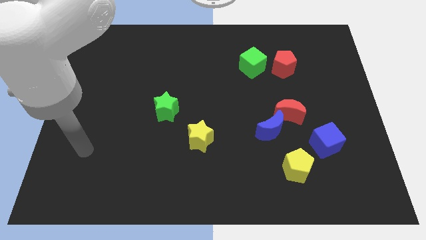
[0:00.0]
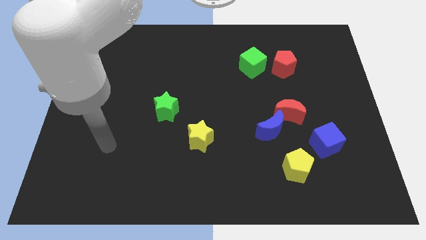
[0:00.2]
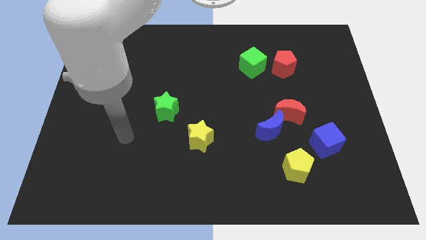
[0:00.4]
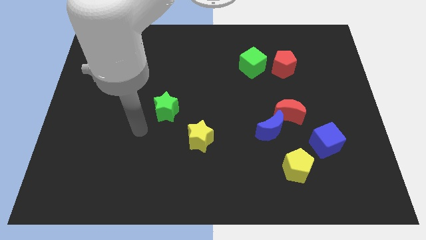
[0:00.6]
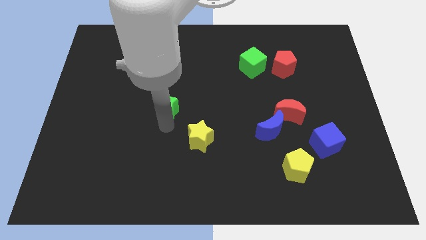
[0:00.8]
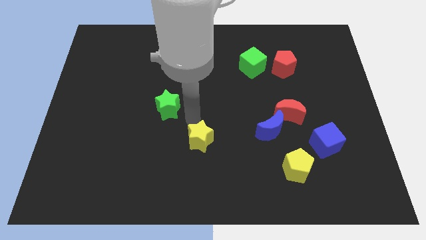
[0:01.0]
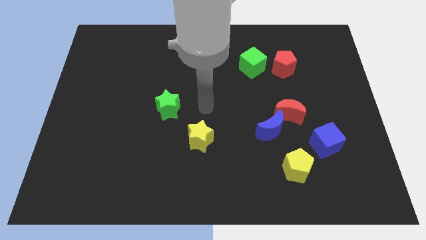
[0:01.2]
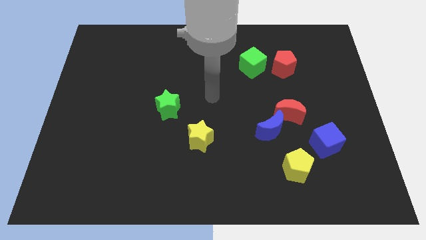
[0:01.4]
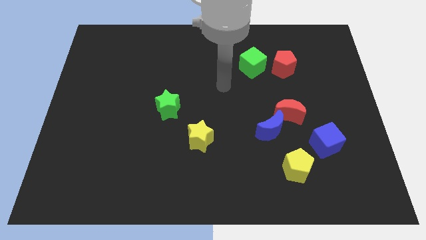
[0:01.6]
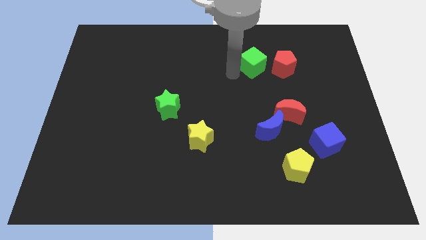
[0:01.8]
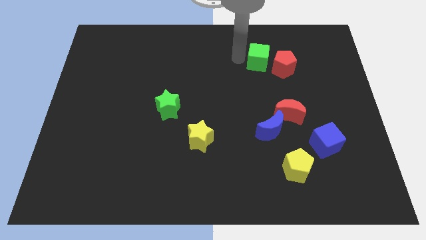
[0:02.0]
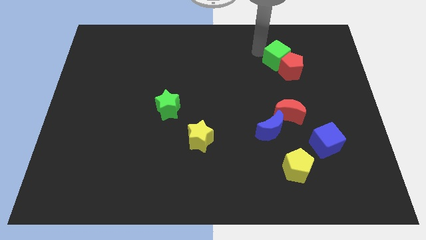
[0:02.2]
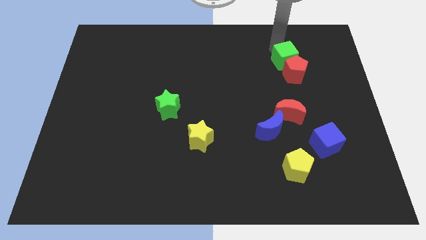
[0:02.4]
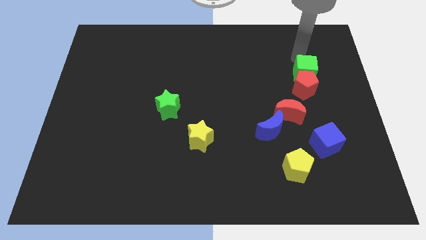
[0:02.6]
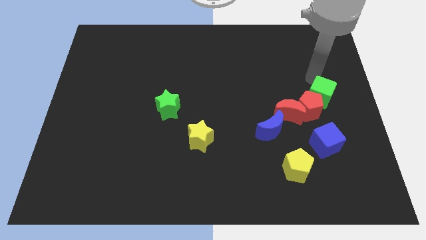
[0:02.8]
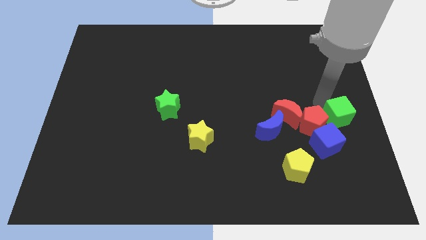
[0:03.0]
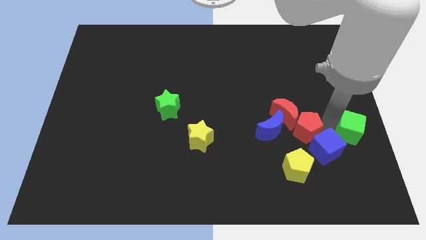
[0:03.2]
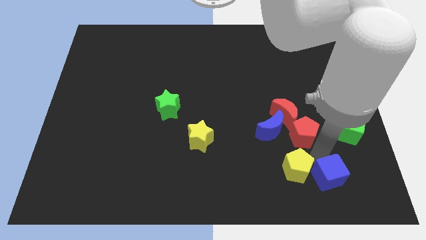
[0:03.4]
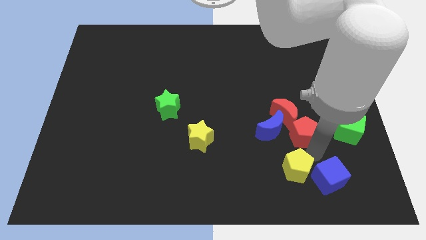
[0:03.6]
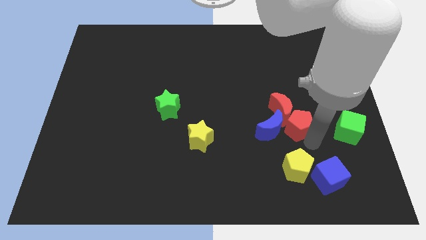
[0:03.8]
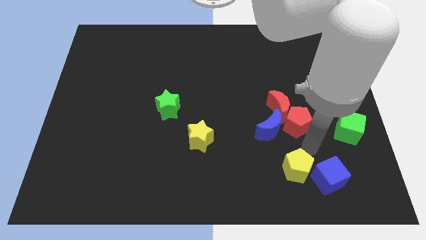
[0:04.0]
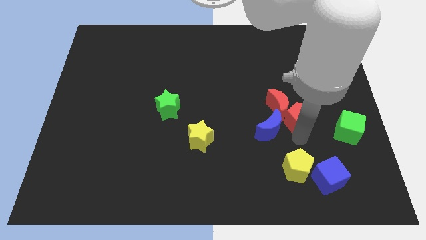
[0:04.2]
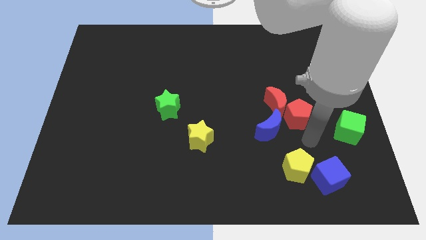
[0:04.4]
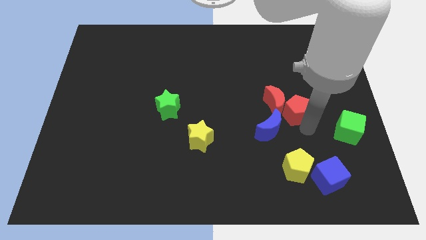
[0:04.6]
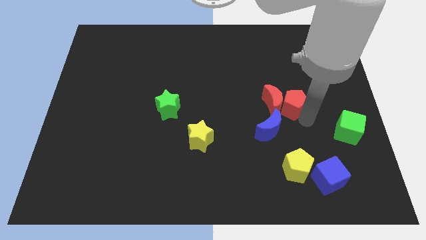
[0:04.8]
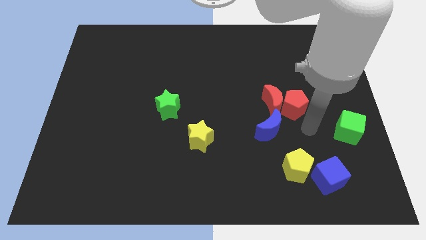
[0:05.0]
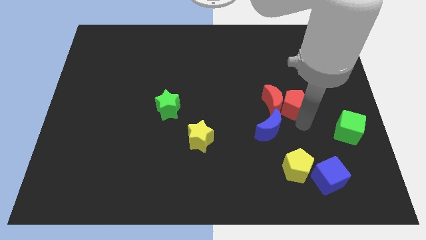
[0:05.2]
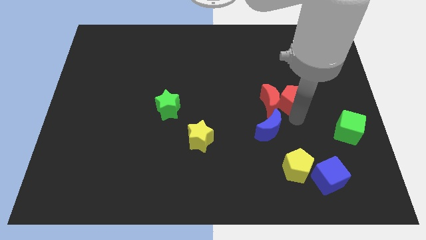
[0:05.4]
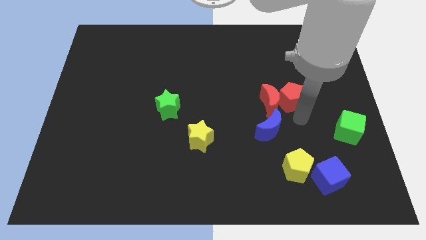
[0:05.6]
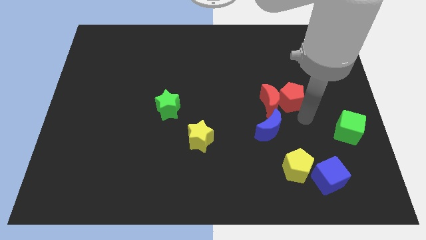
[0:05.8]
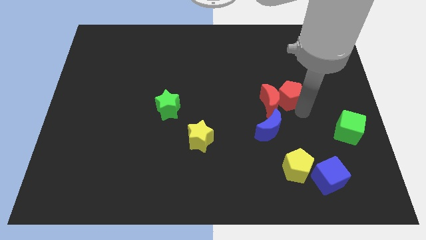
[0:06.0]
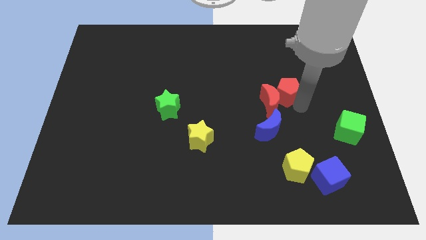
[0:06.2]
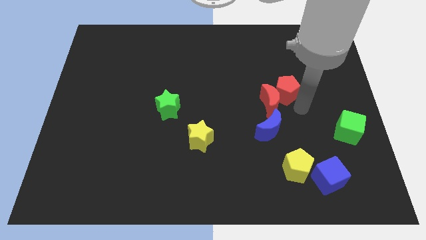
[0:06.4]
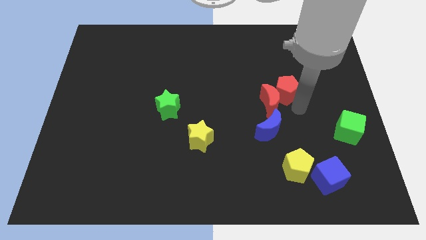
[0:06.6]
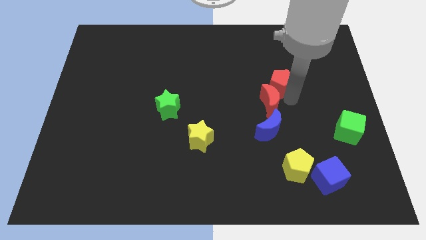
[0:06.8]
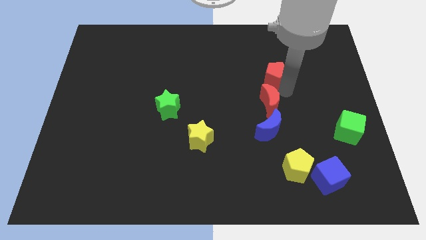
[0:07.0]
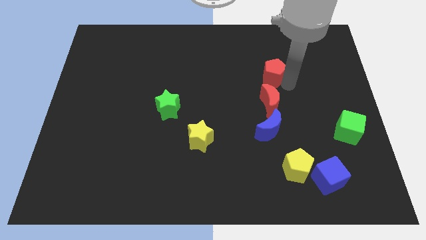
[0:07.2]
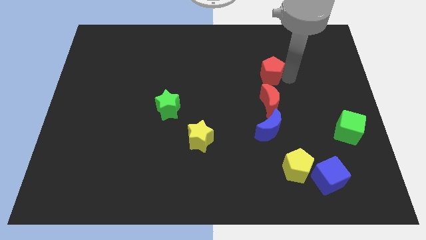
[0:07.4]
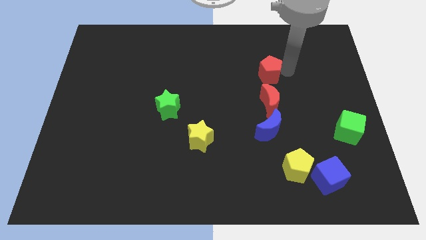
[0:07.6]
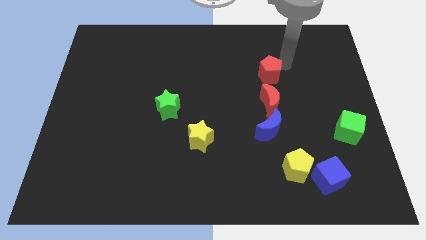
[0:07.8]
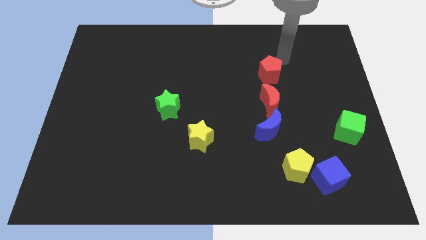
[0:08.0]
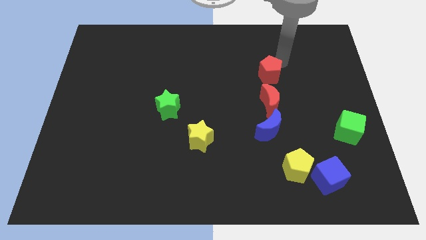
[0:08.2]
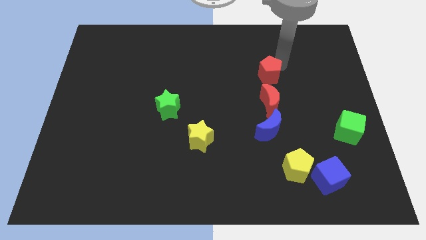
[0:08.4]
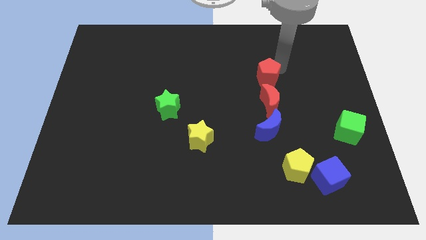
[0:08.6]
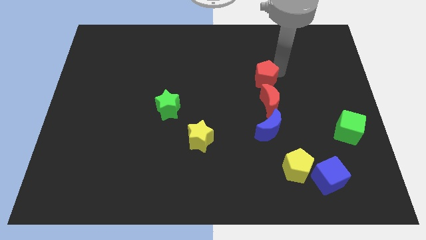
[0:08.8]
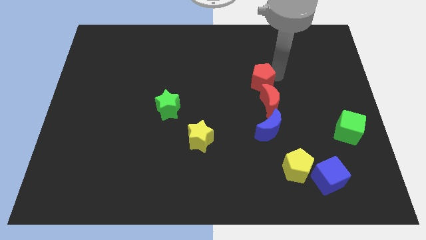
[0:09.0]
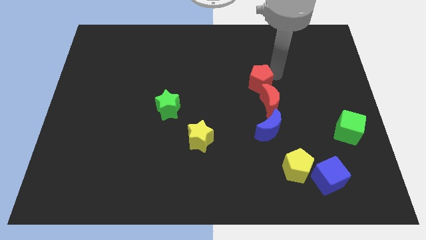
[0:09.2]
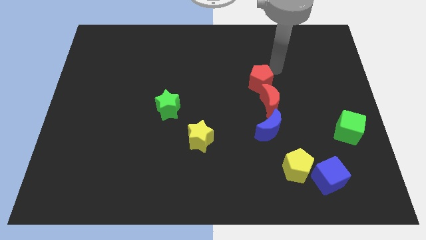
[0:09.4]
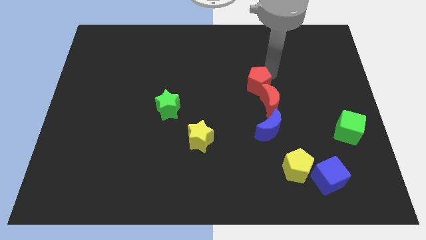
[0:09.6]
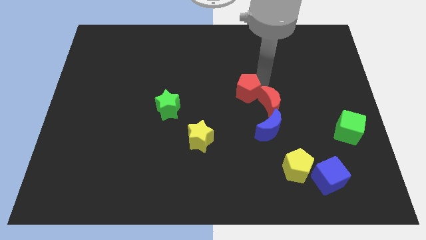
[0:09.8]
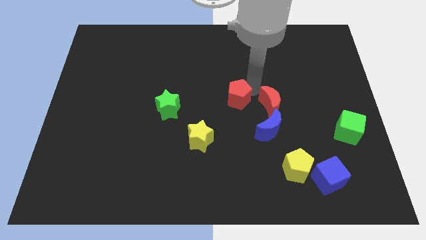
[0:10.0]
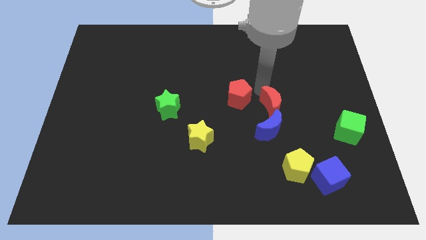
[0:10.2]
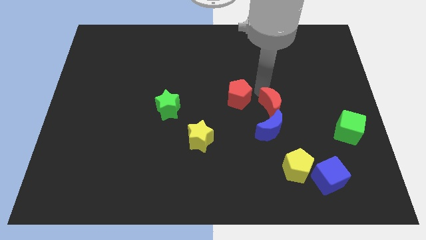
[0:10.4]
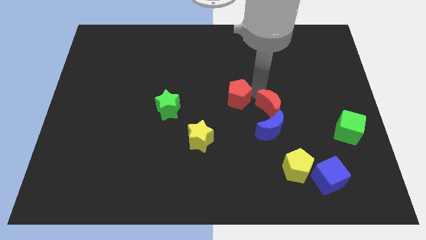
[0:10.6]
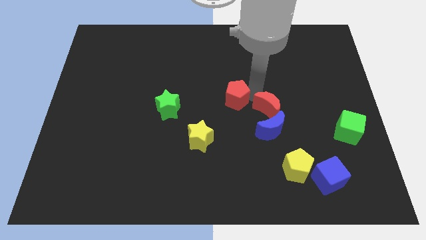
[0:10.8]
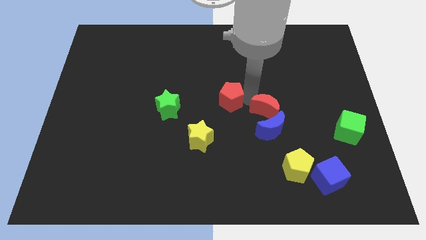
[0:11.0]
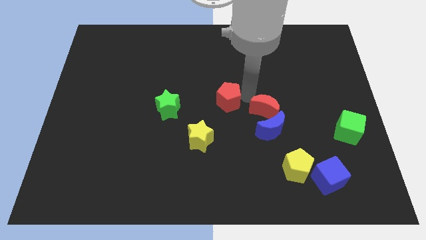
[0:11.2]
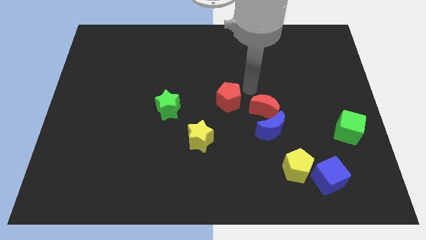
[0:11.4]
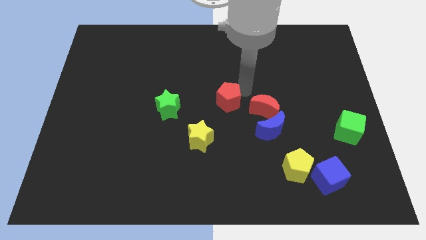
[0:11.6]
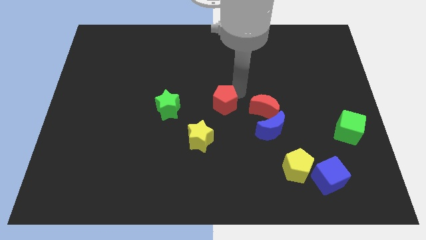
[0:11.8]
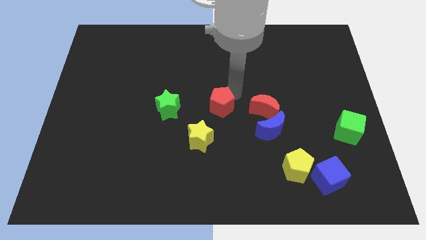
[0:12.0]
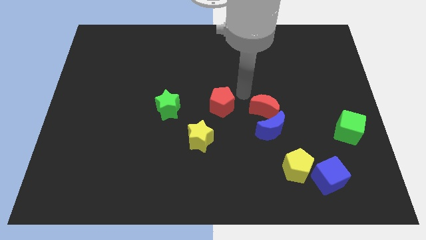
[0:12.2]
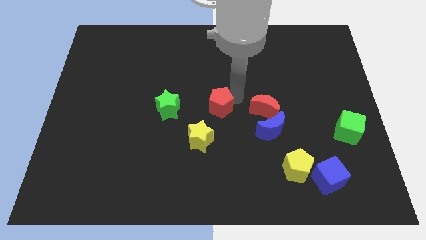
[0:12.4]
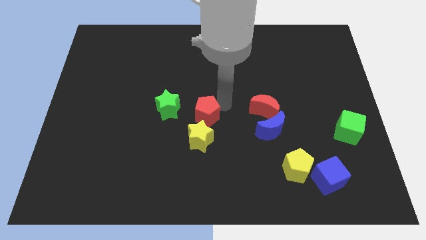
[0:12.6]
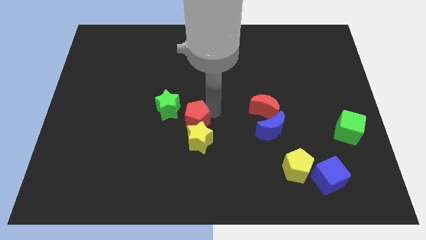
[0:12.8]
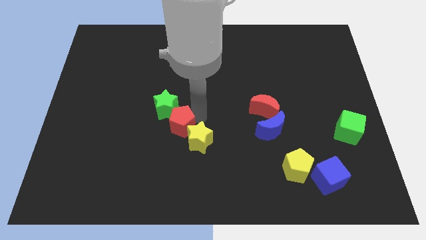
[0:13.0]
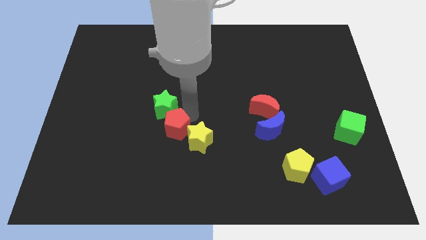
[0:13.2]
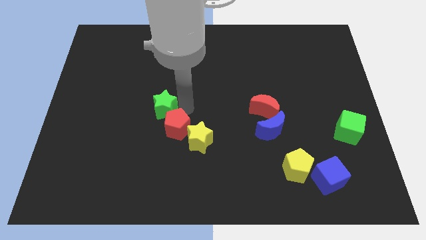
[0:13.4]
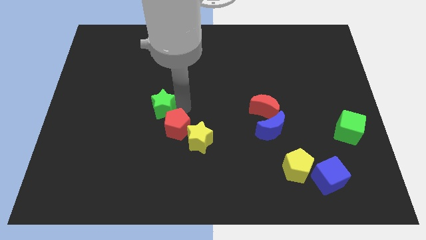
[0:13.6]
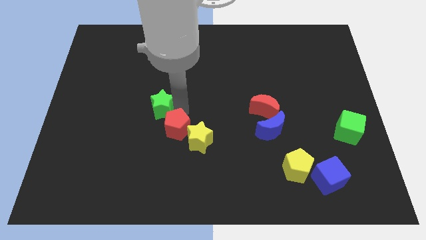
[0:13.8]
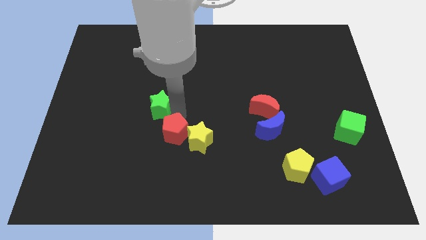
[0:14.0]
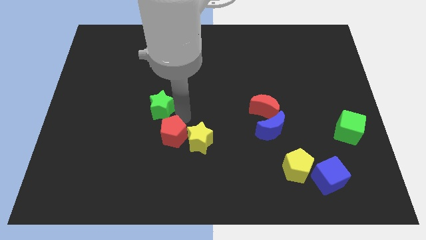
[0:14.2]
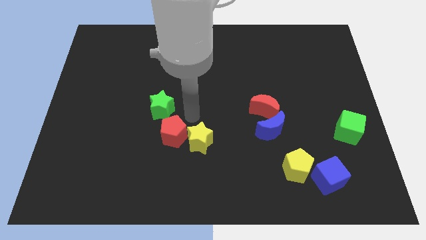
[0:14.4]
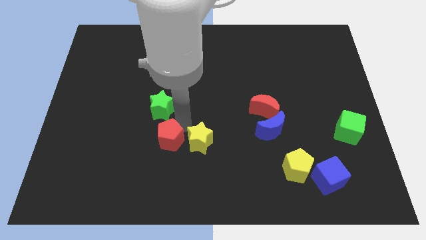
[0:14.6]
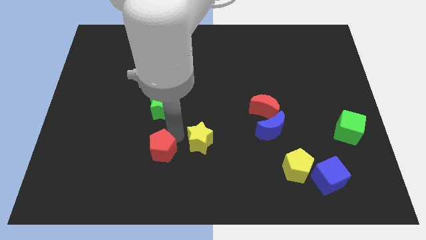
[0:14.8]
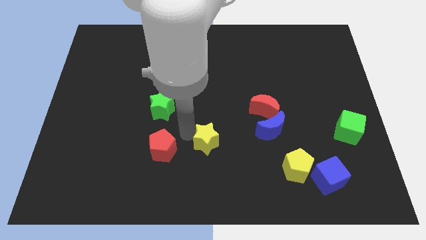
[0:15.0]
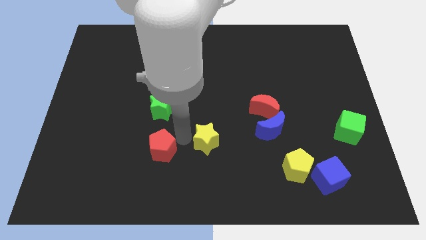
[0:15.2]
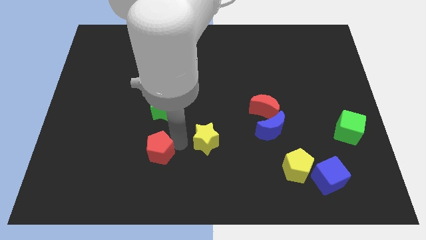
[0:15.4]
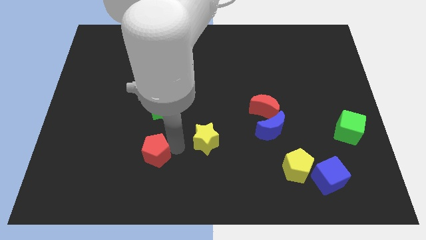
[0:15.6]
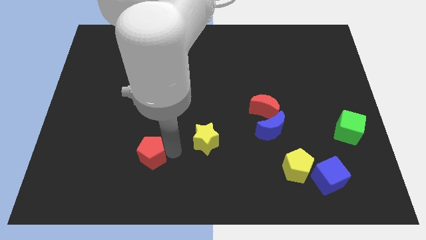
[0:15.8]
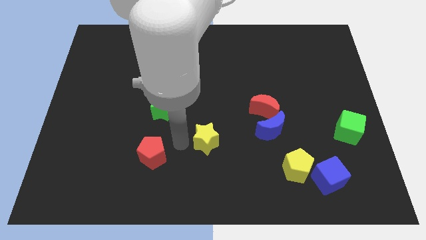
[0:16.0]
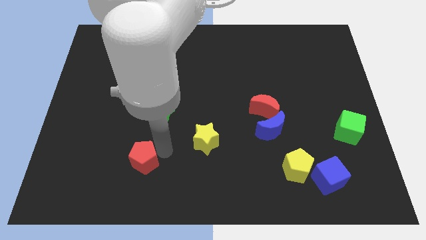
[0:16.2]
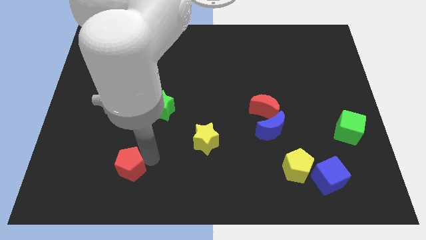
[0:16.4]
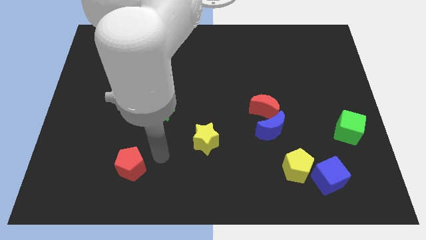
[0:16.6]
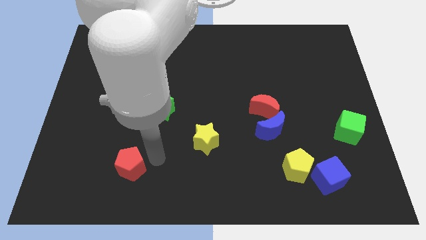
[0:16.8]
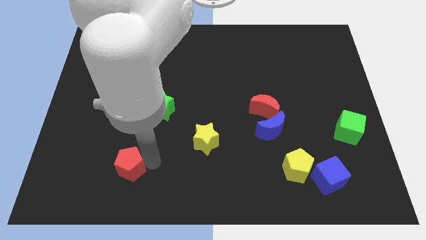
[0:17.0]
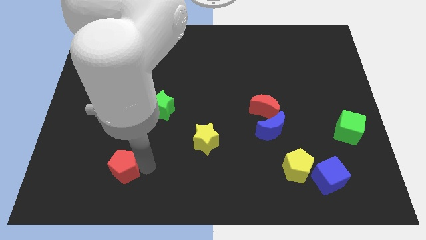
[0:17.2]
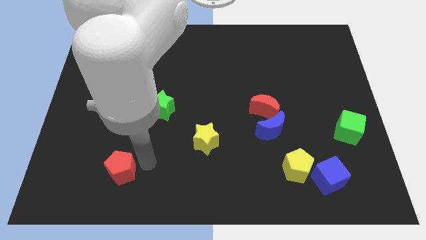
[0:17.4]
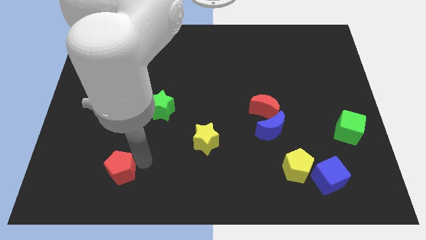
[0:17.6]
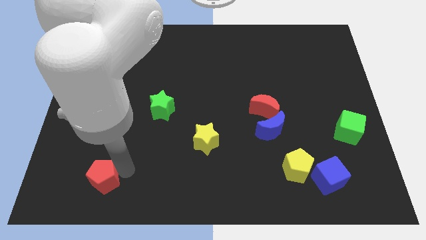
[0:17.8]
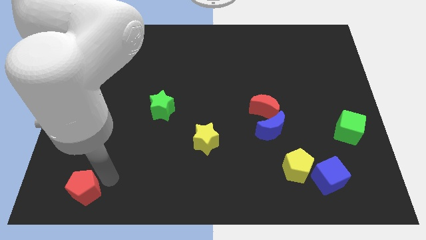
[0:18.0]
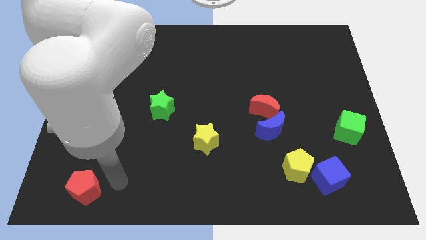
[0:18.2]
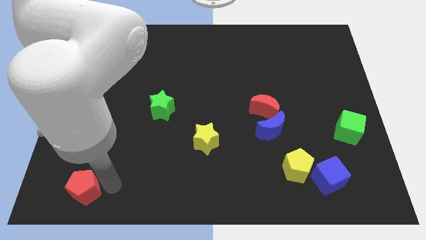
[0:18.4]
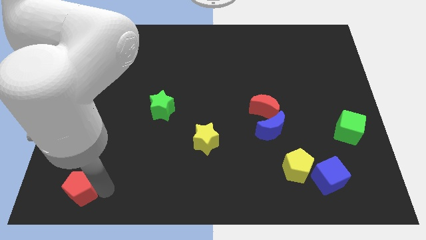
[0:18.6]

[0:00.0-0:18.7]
put the red pentagon to the lower left corner
